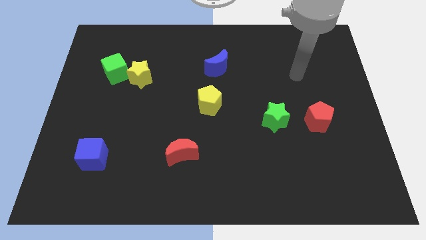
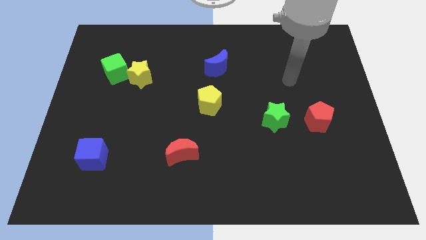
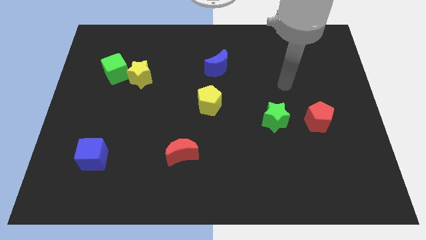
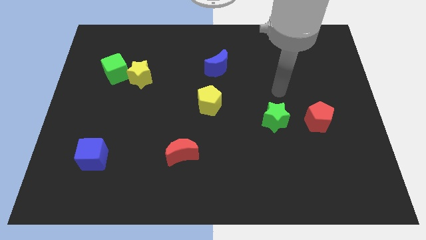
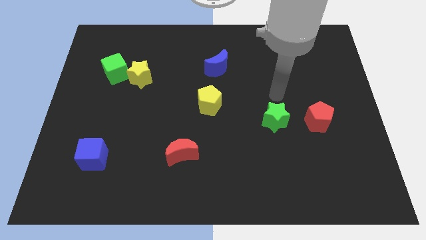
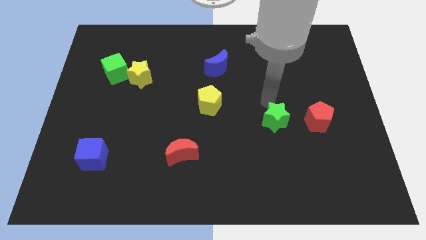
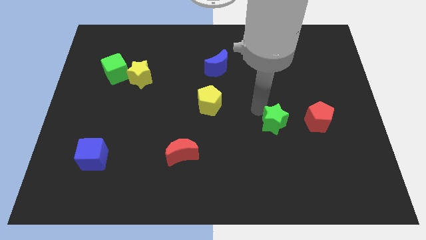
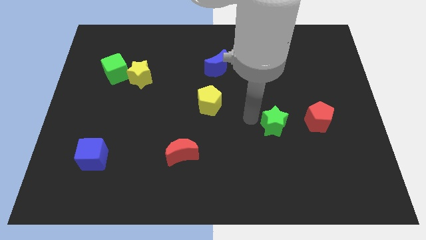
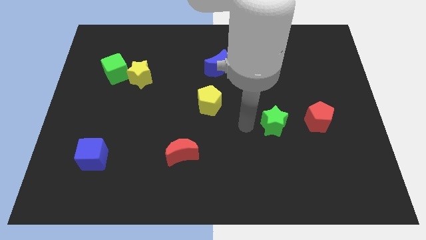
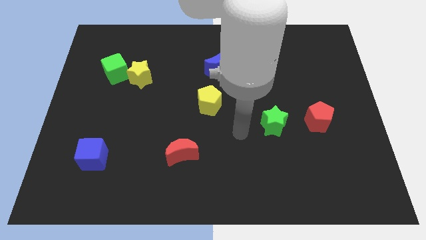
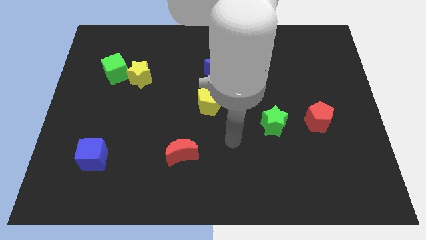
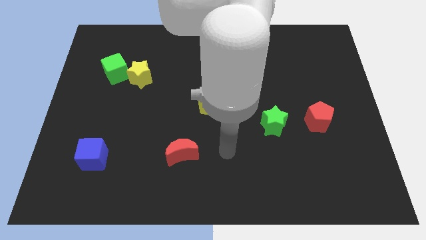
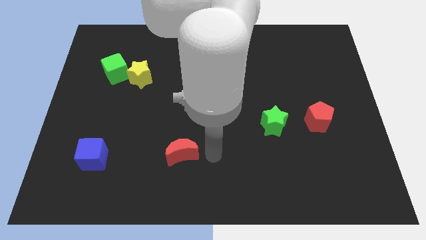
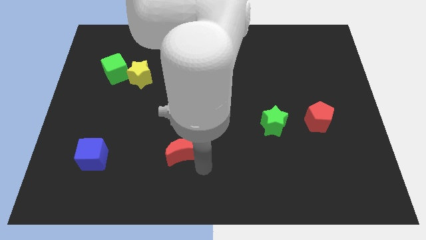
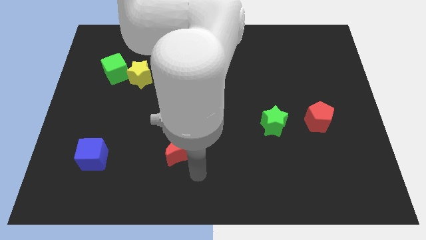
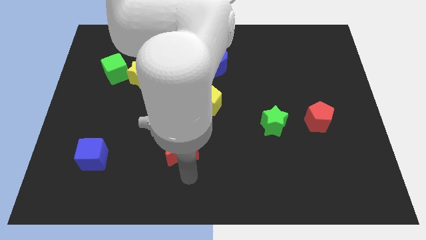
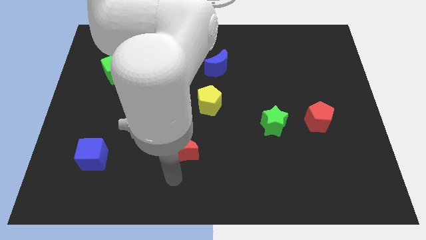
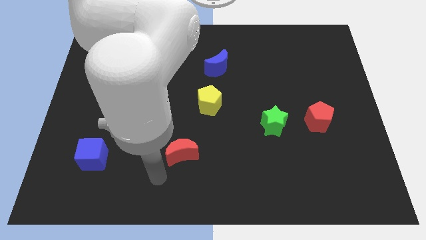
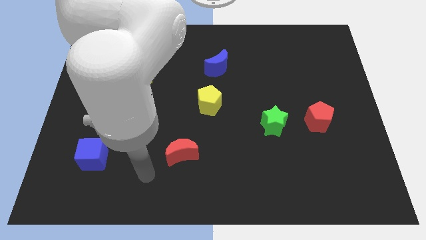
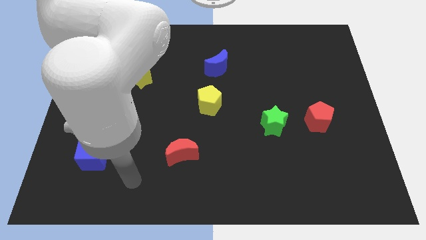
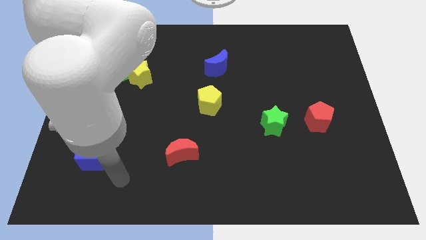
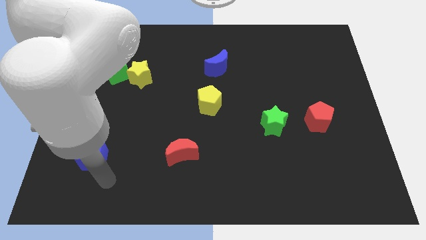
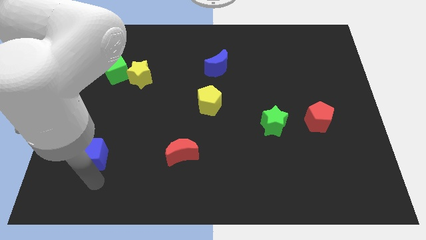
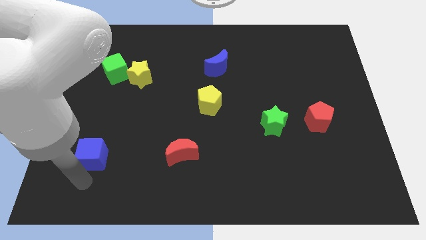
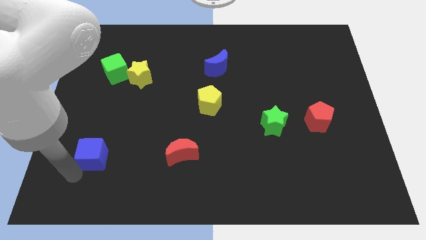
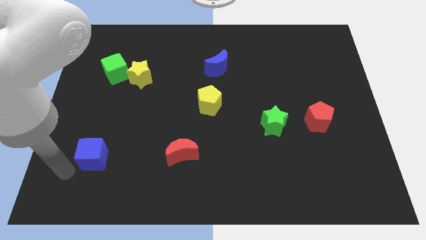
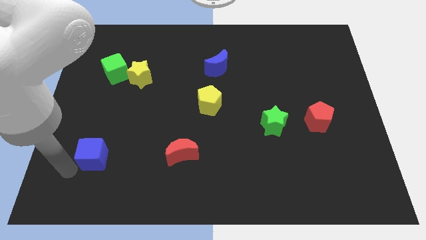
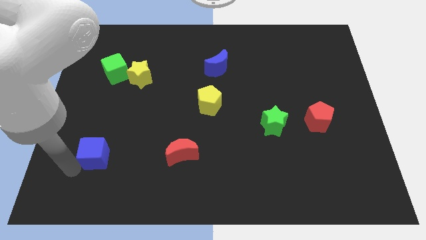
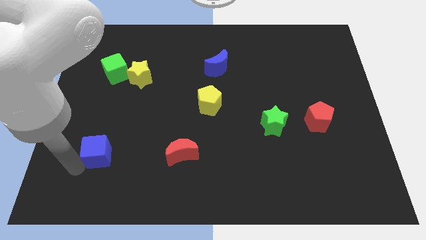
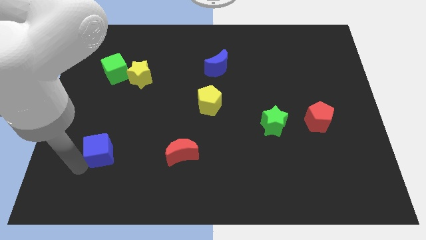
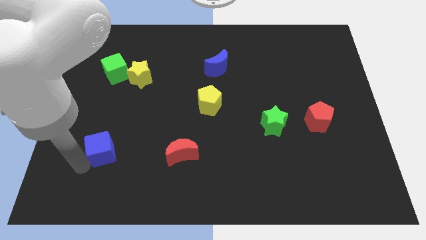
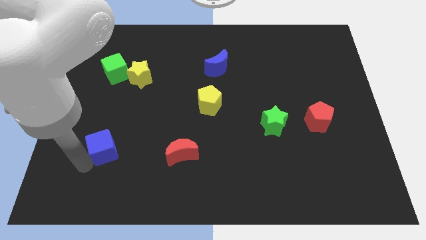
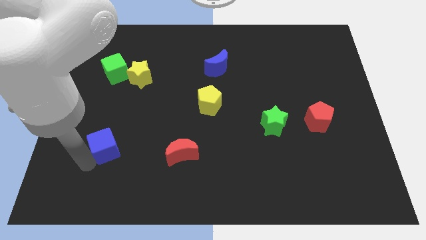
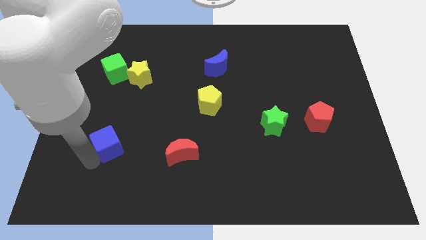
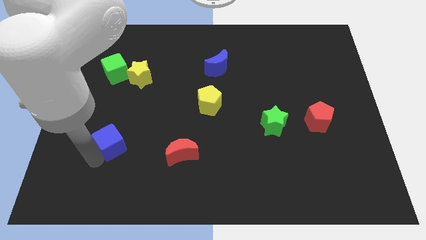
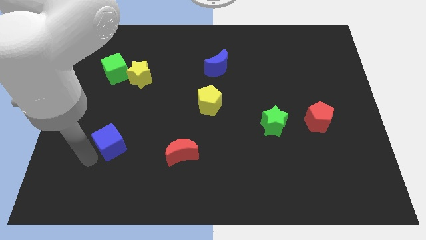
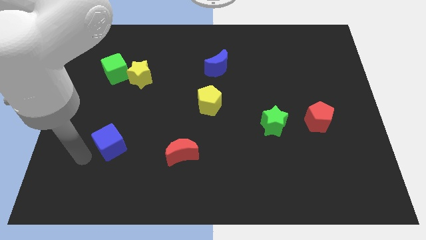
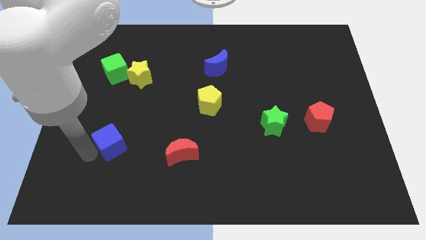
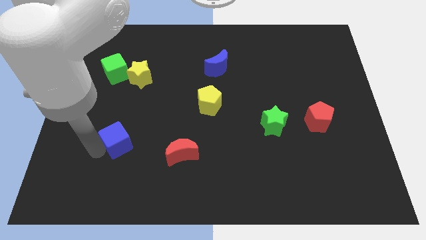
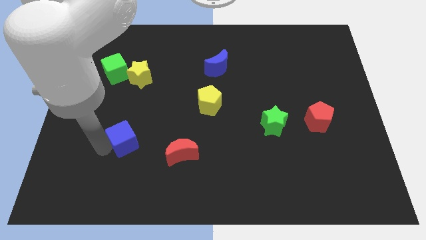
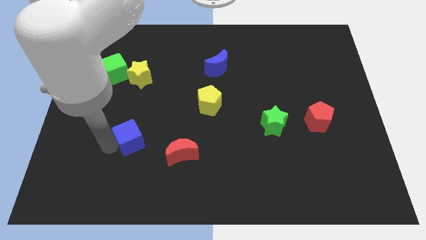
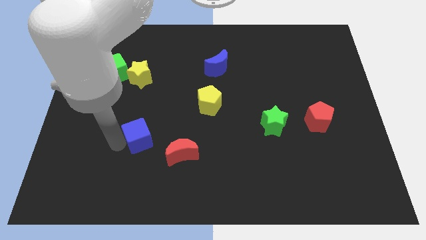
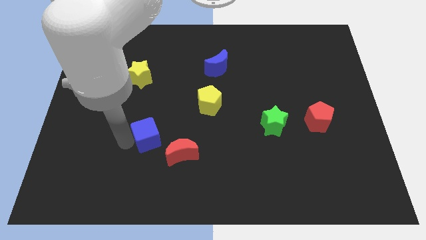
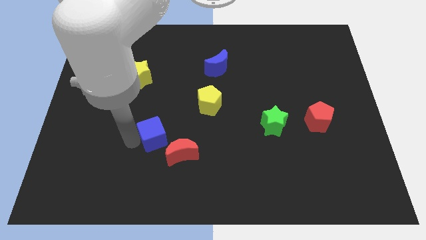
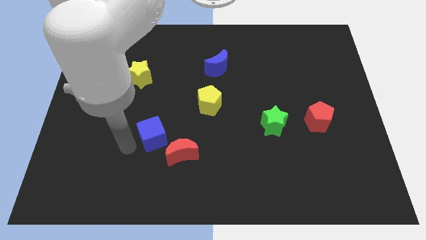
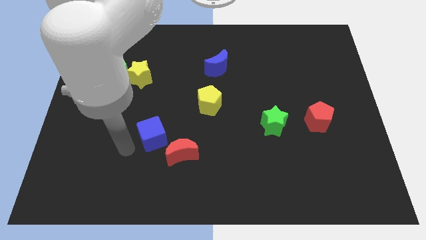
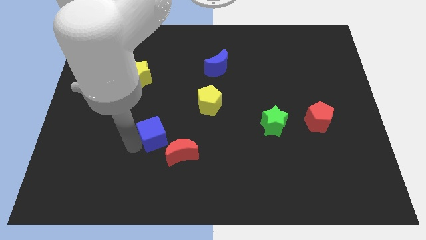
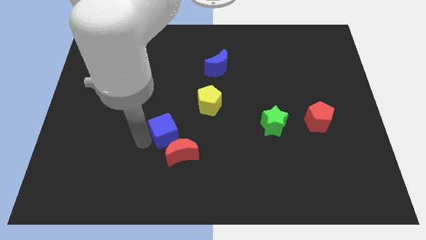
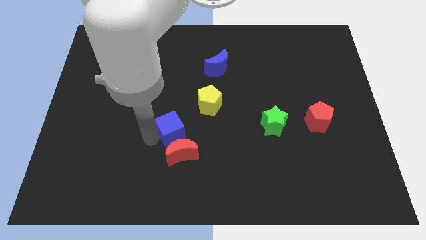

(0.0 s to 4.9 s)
put the blue cube diagonally down and to the left of the yellow pentagon

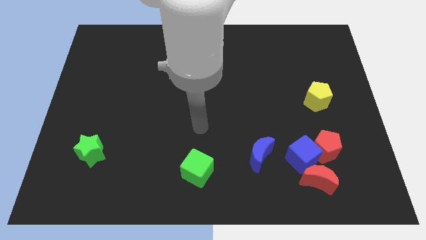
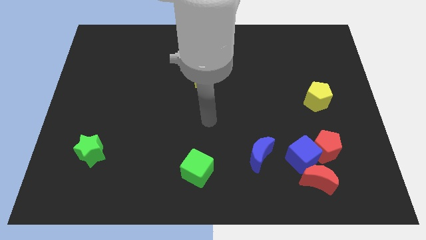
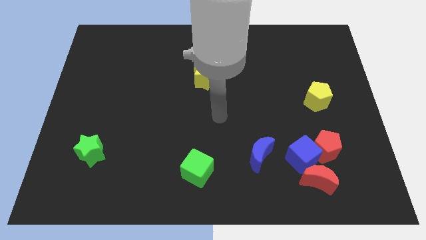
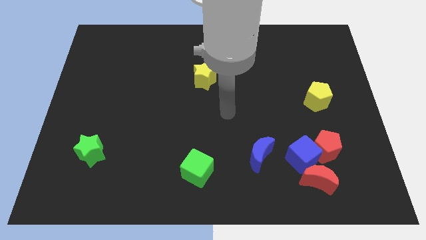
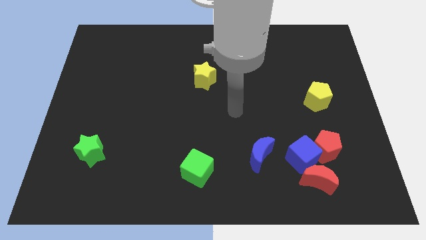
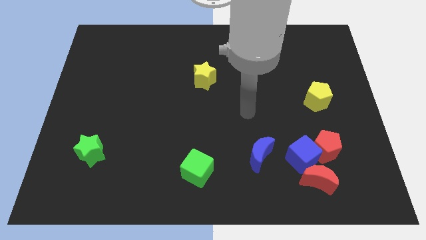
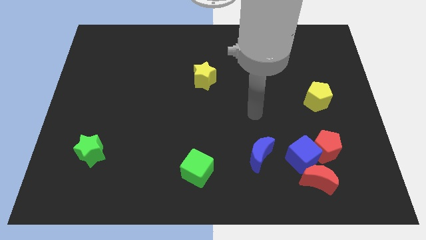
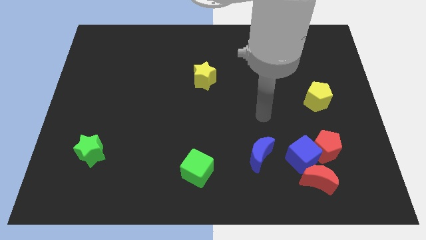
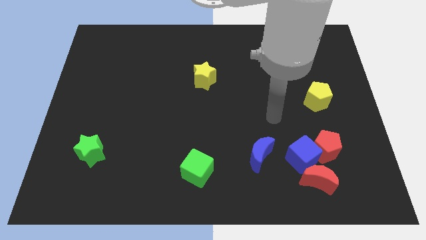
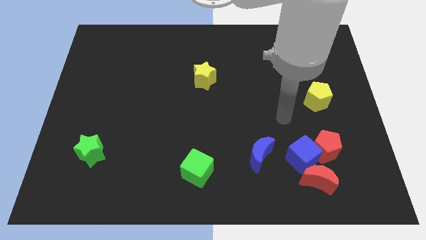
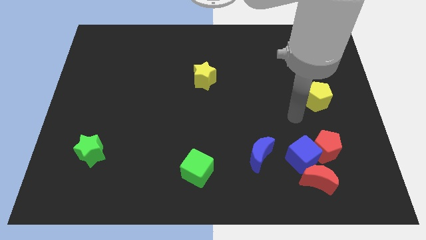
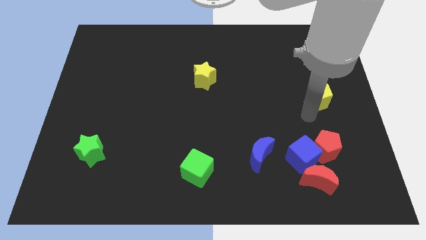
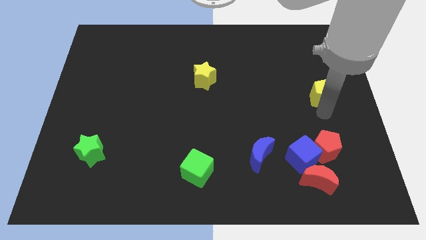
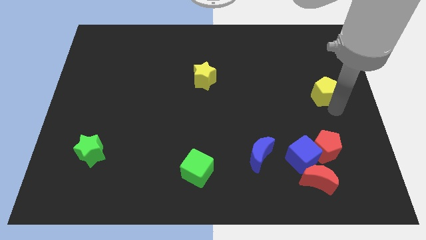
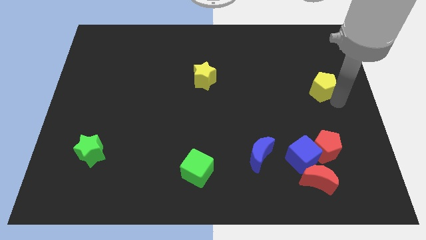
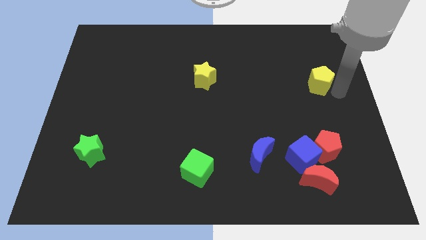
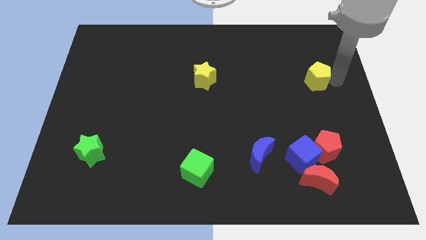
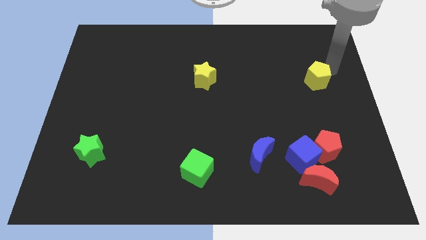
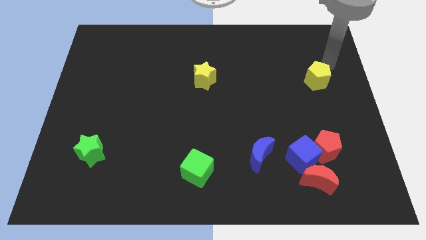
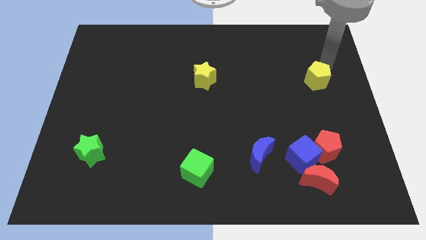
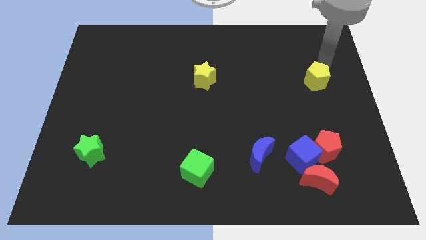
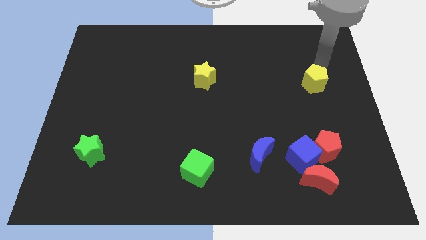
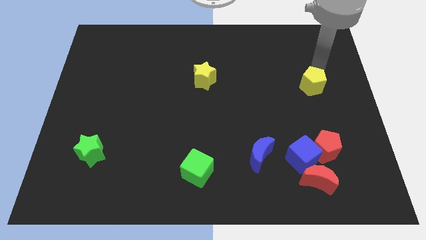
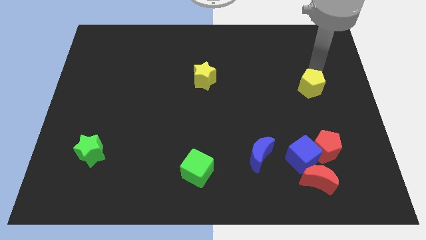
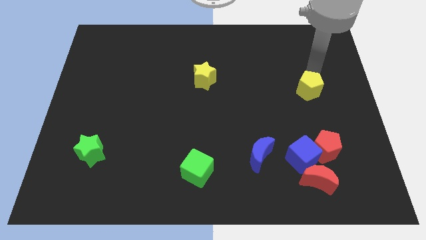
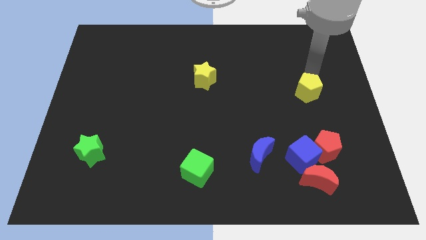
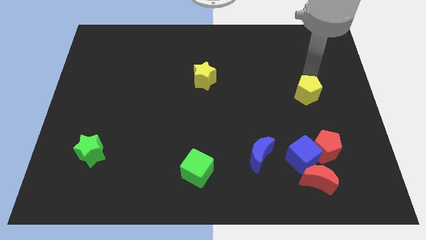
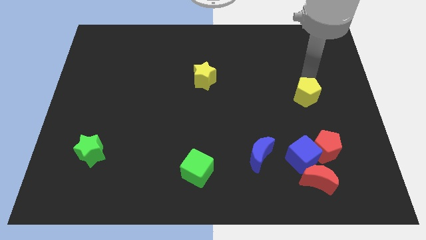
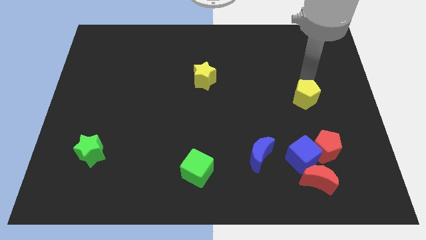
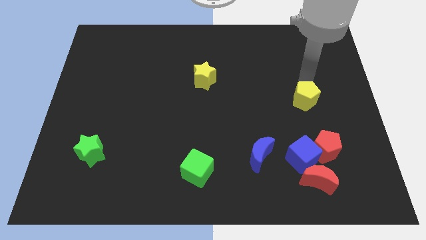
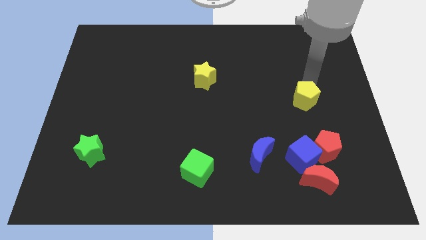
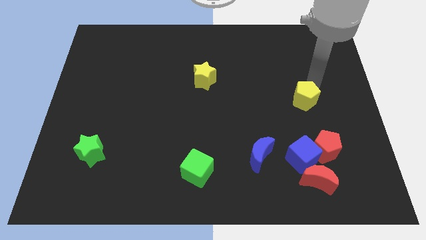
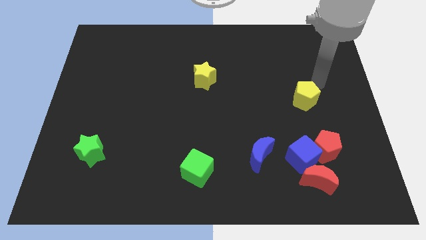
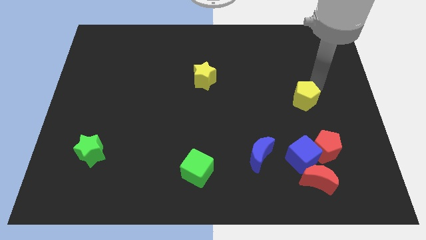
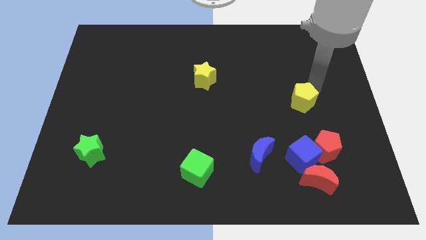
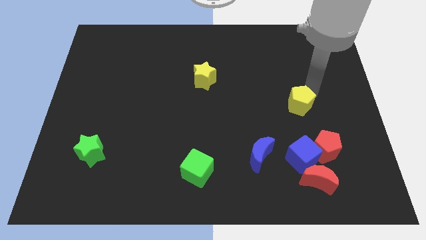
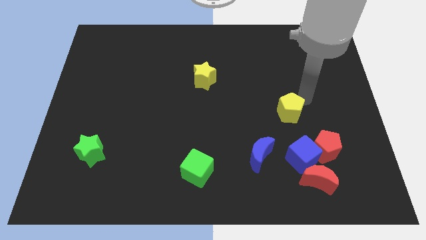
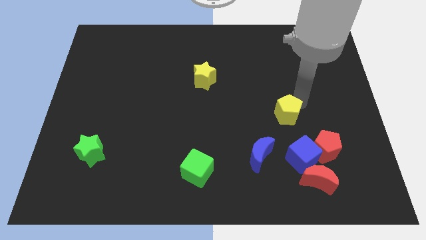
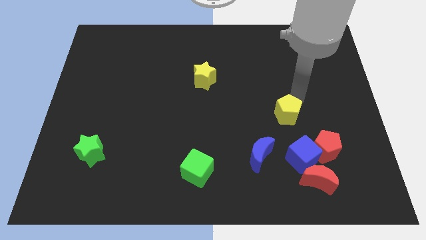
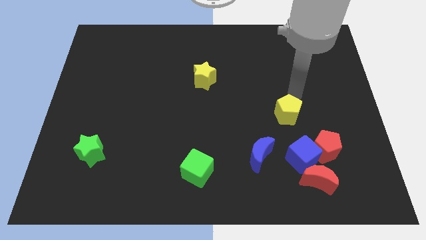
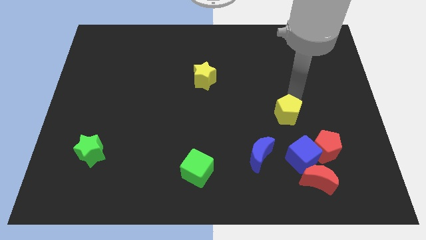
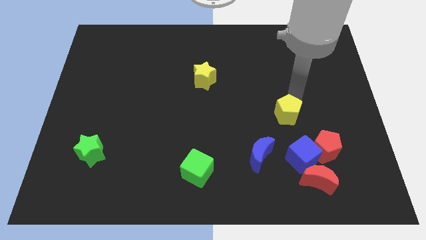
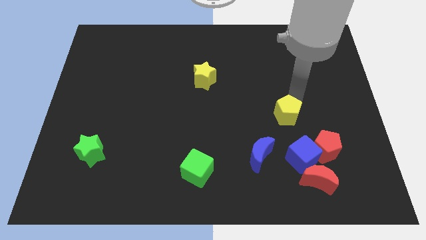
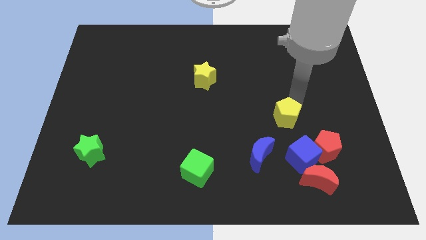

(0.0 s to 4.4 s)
push the yellow pentagon to the top right side of the blue moon
